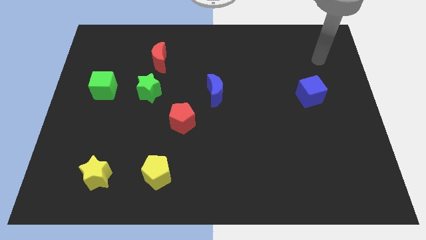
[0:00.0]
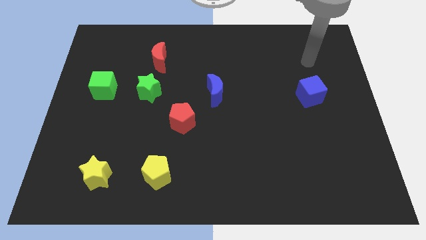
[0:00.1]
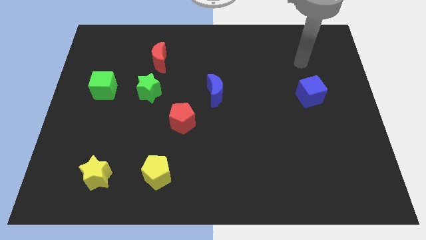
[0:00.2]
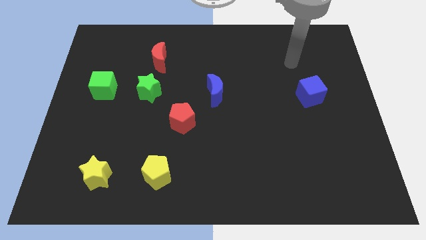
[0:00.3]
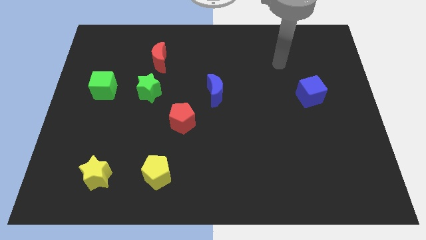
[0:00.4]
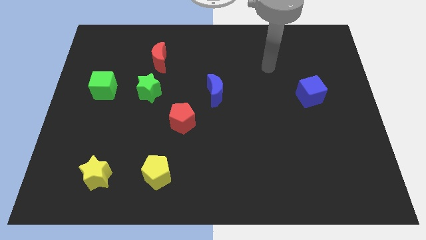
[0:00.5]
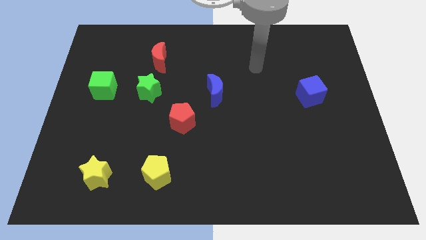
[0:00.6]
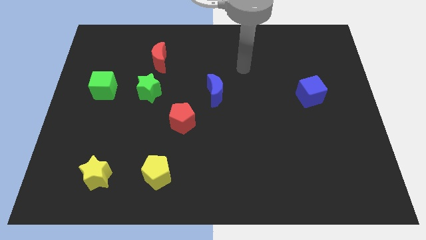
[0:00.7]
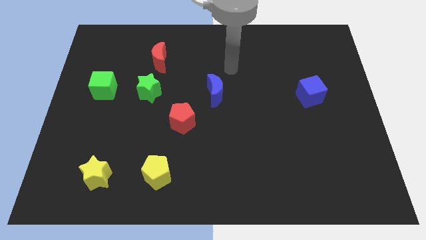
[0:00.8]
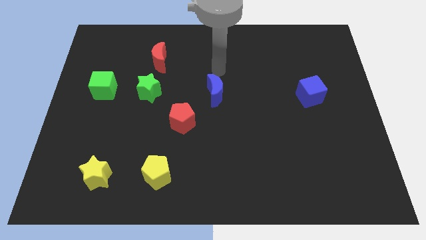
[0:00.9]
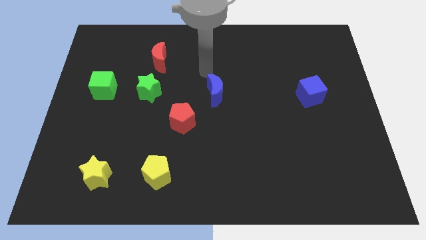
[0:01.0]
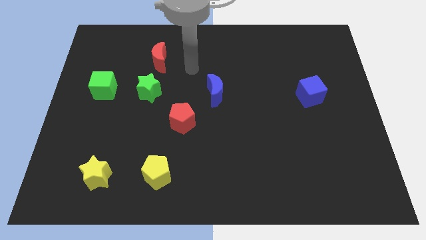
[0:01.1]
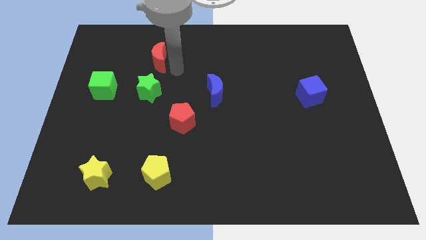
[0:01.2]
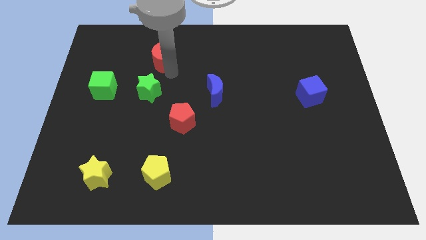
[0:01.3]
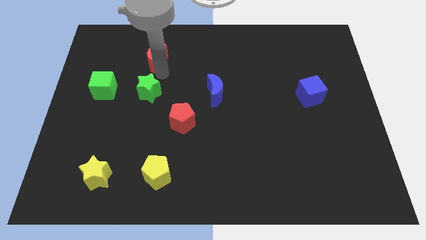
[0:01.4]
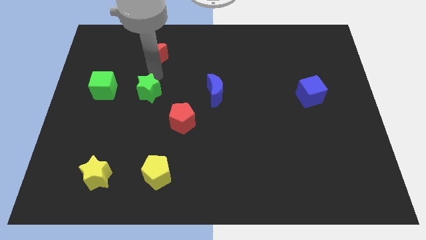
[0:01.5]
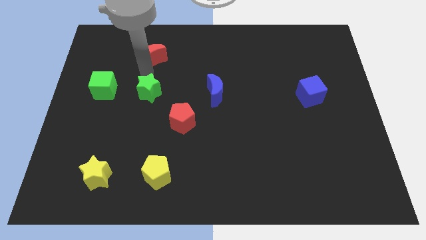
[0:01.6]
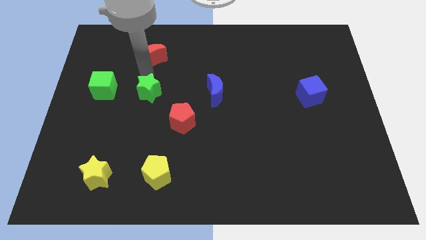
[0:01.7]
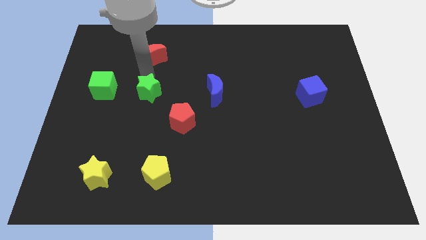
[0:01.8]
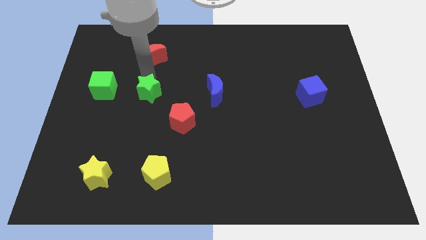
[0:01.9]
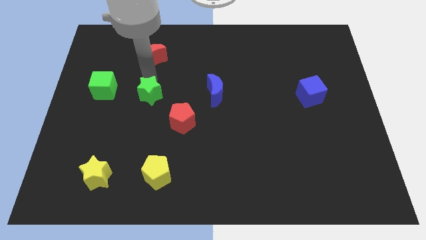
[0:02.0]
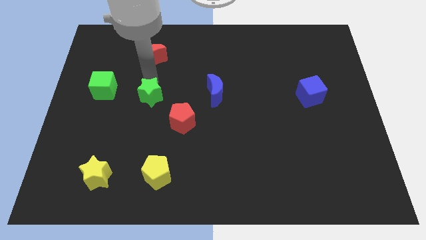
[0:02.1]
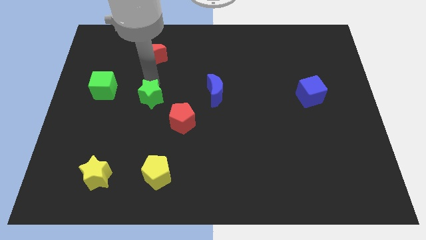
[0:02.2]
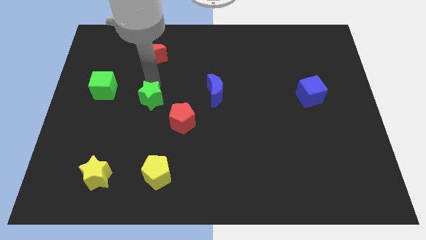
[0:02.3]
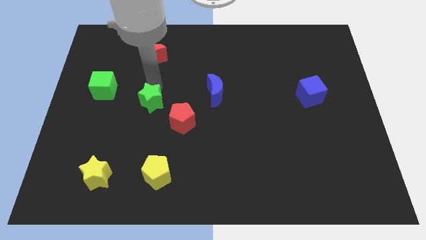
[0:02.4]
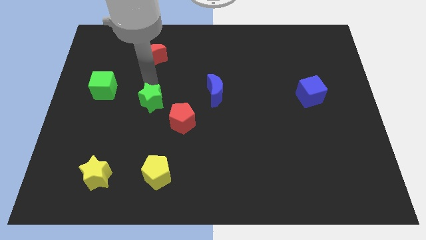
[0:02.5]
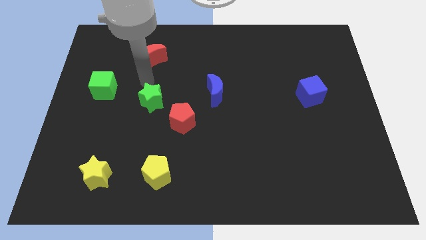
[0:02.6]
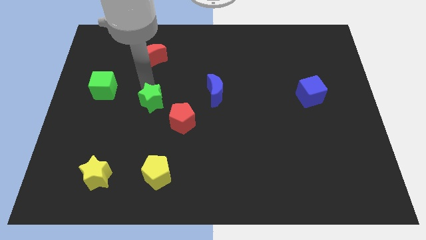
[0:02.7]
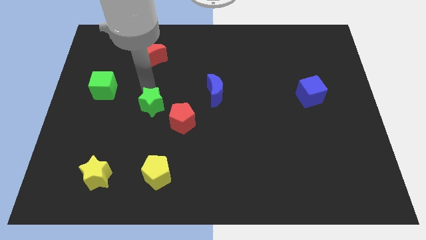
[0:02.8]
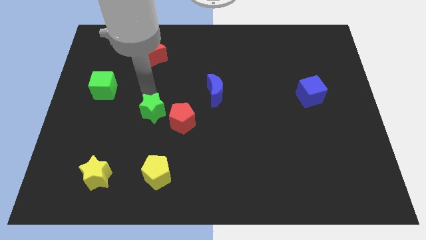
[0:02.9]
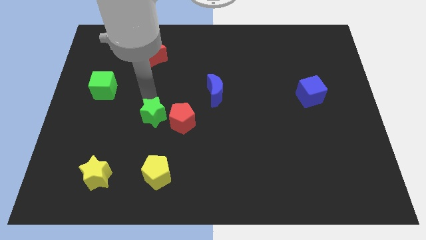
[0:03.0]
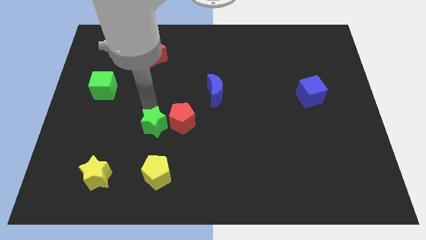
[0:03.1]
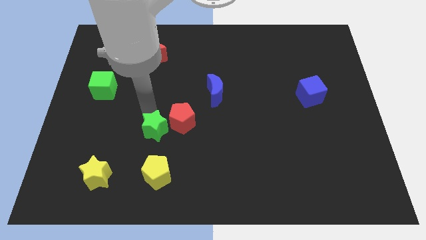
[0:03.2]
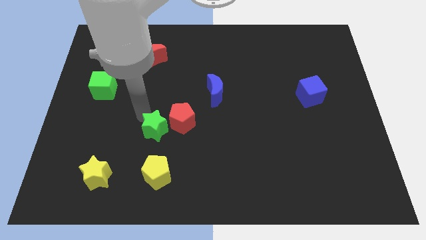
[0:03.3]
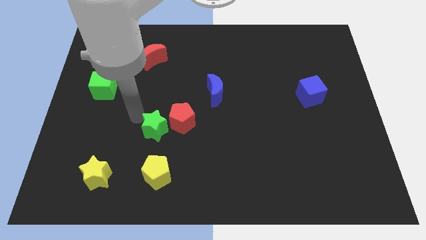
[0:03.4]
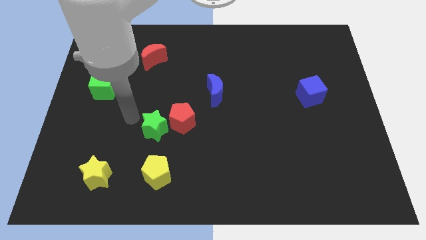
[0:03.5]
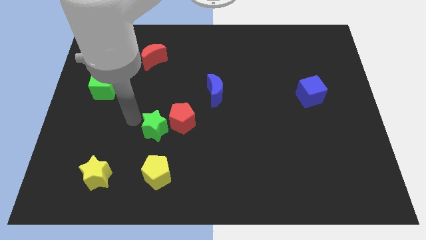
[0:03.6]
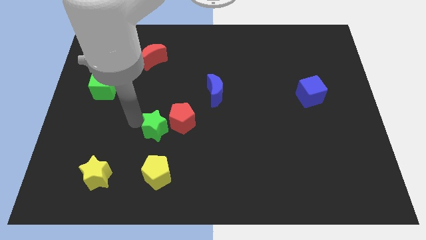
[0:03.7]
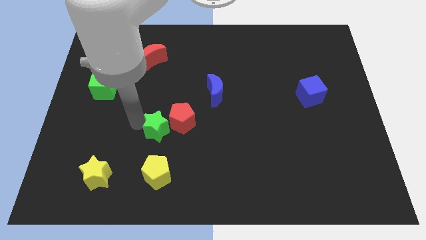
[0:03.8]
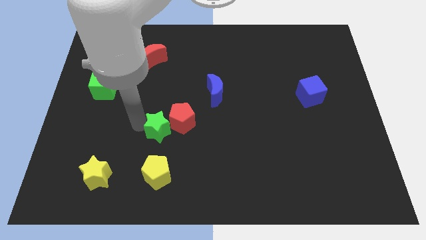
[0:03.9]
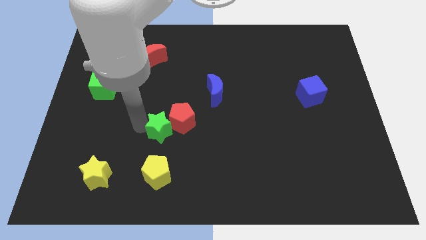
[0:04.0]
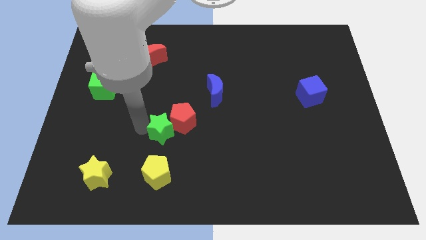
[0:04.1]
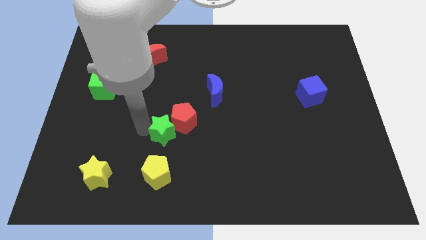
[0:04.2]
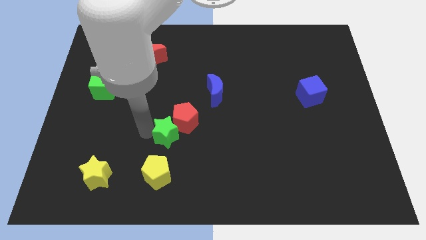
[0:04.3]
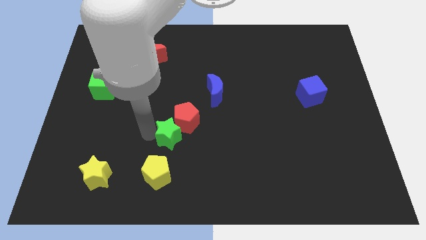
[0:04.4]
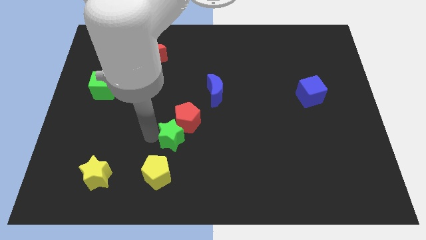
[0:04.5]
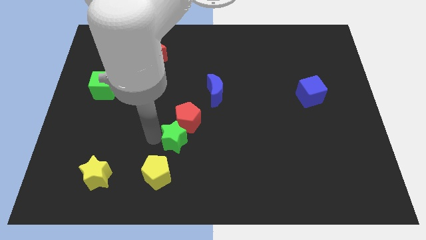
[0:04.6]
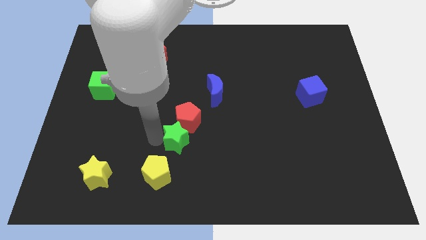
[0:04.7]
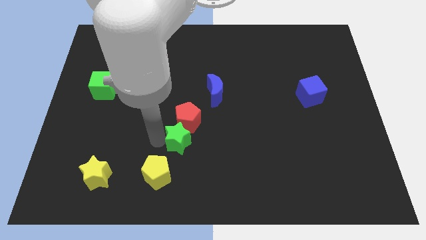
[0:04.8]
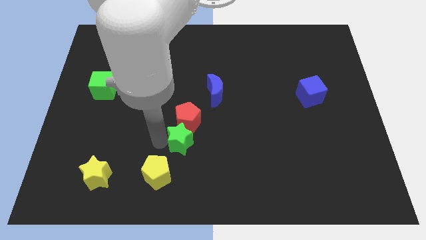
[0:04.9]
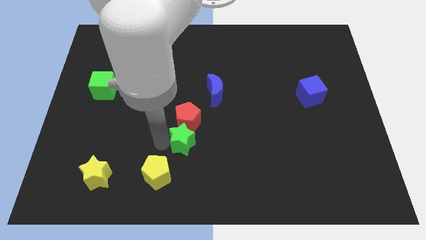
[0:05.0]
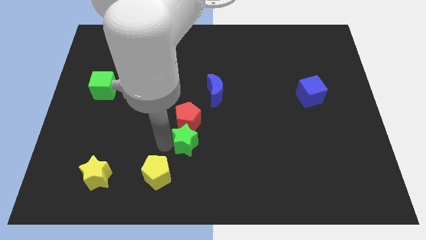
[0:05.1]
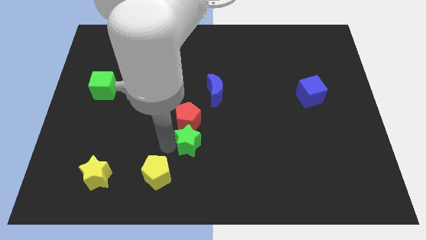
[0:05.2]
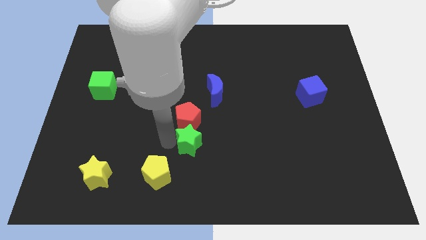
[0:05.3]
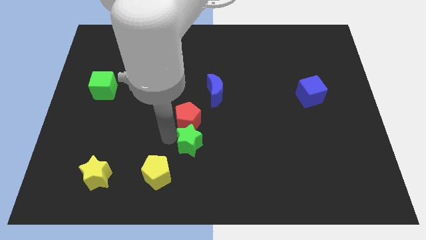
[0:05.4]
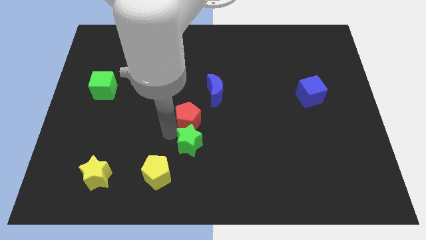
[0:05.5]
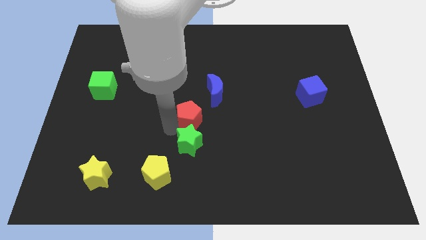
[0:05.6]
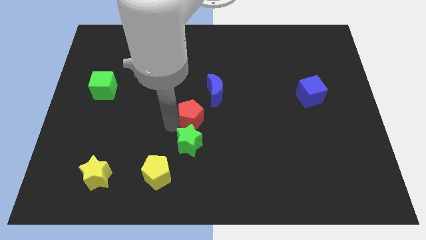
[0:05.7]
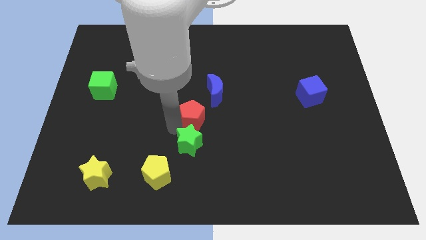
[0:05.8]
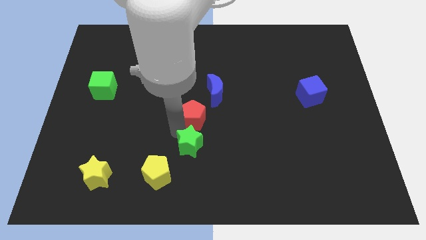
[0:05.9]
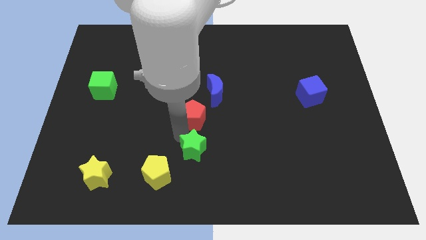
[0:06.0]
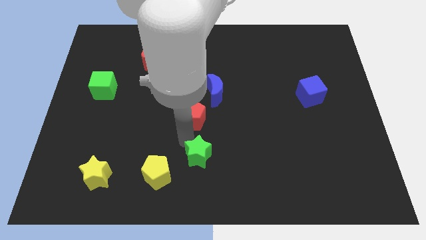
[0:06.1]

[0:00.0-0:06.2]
put the green star to the bottom
